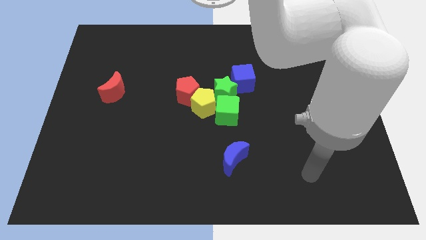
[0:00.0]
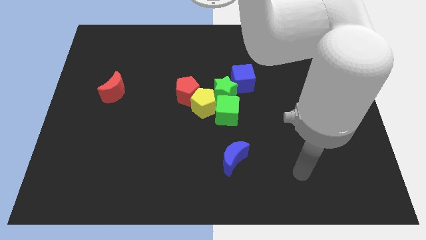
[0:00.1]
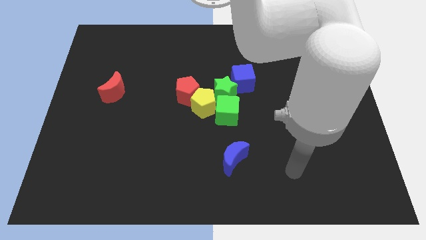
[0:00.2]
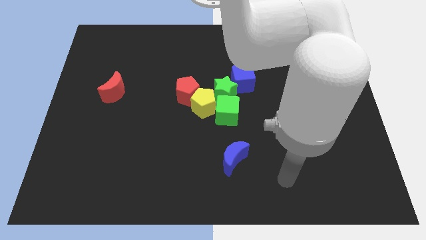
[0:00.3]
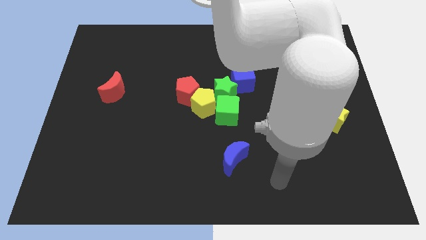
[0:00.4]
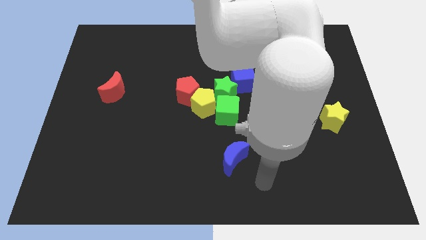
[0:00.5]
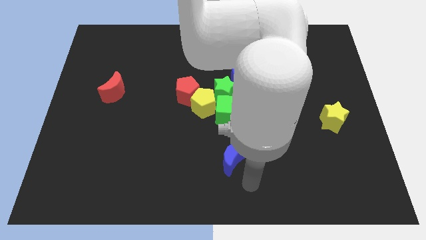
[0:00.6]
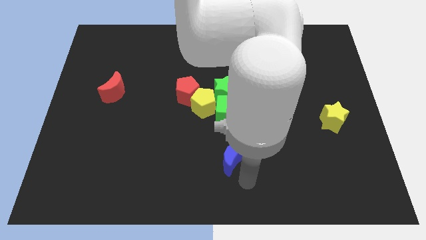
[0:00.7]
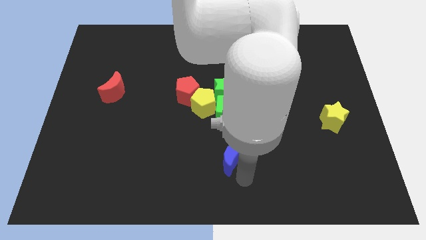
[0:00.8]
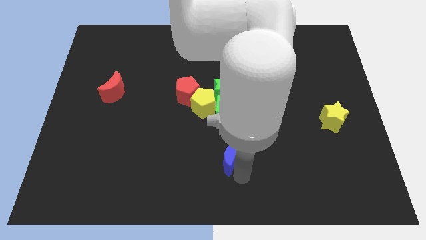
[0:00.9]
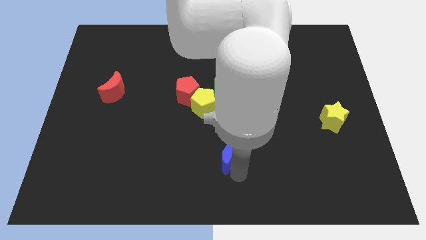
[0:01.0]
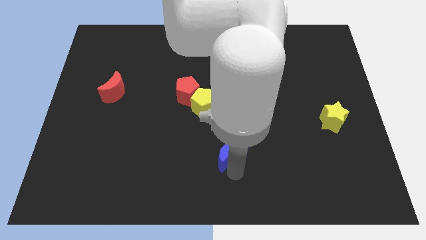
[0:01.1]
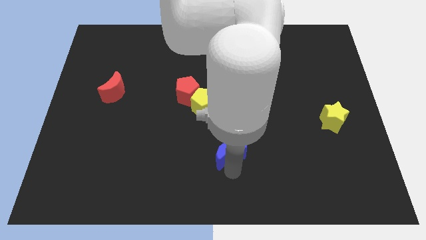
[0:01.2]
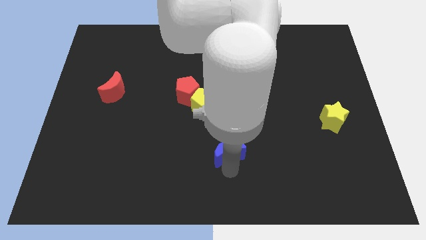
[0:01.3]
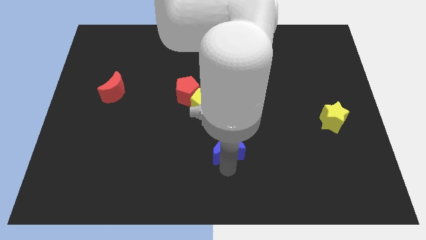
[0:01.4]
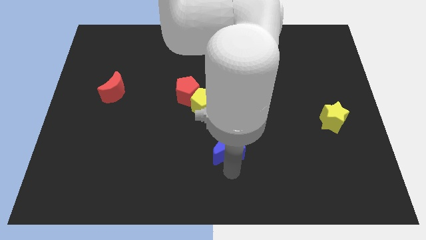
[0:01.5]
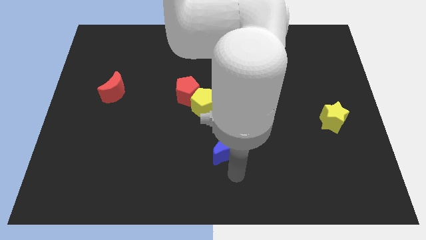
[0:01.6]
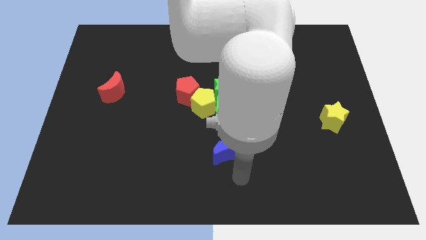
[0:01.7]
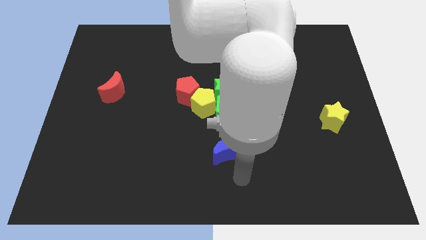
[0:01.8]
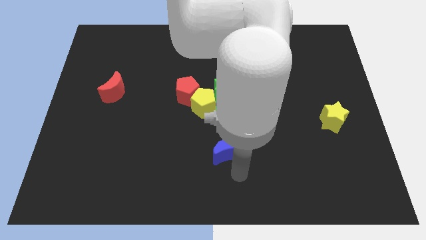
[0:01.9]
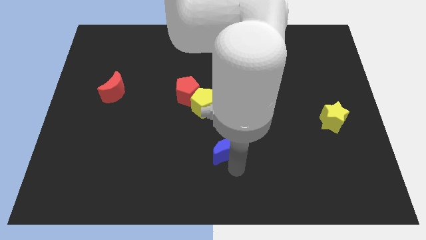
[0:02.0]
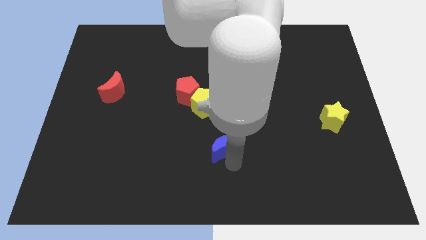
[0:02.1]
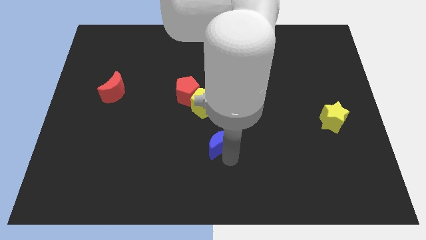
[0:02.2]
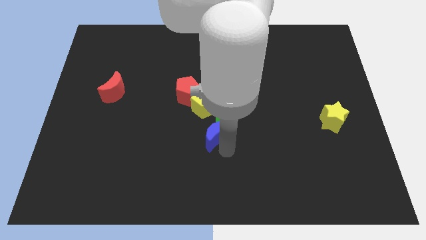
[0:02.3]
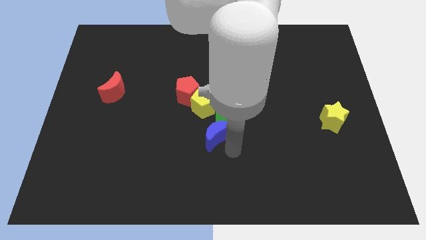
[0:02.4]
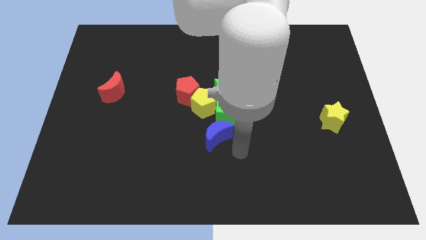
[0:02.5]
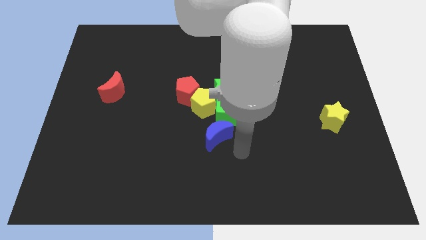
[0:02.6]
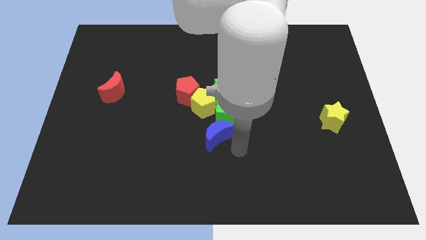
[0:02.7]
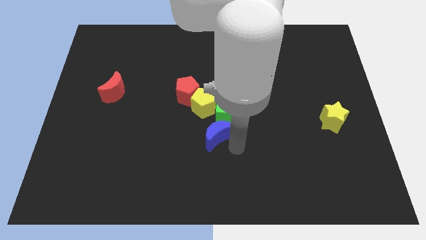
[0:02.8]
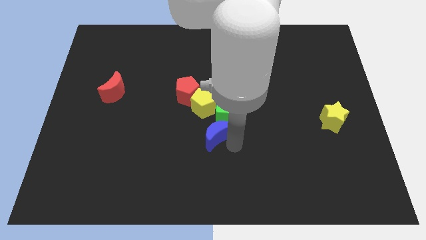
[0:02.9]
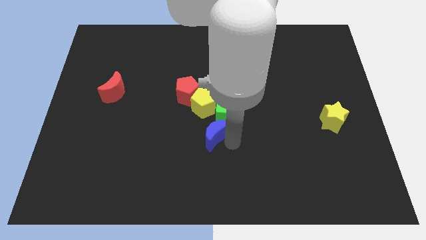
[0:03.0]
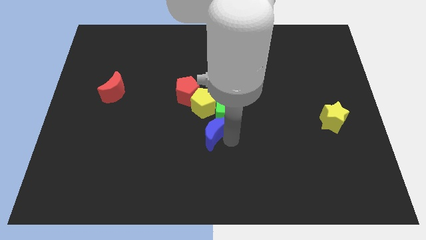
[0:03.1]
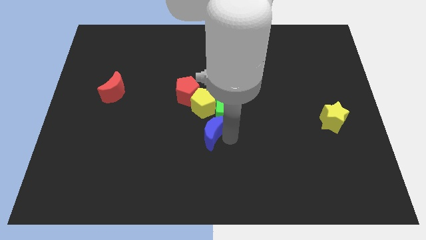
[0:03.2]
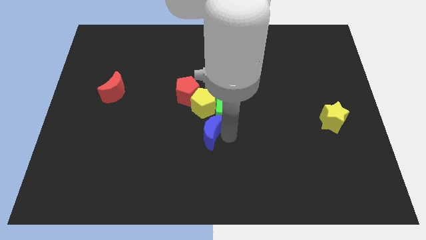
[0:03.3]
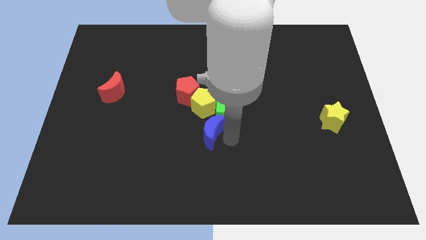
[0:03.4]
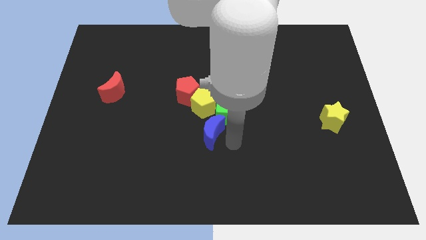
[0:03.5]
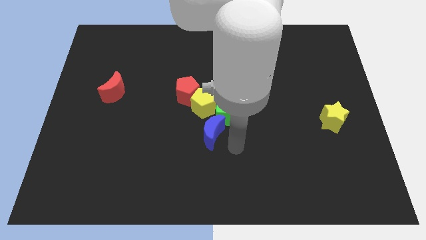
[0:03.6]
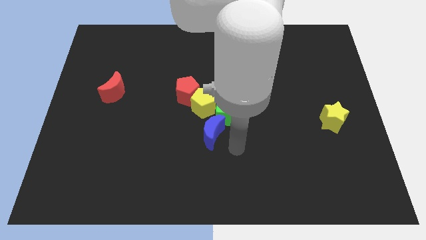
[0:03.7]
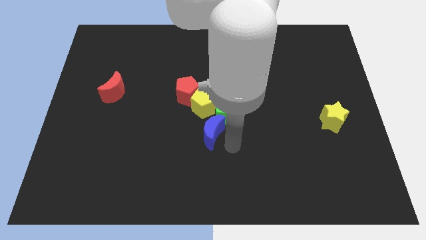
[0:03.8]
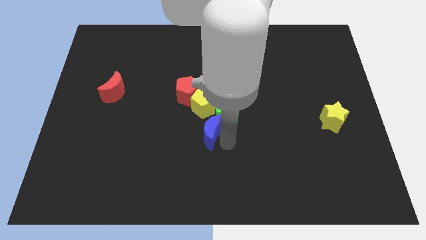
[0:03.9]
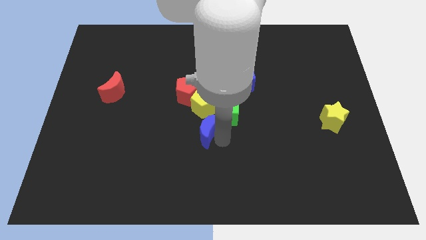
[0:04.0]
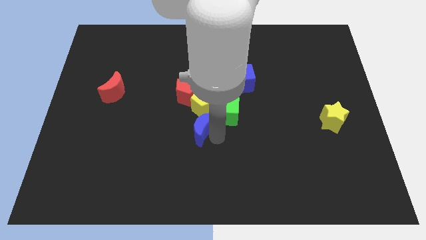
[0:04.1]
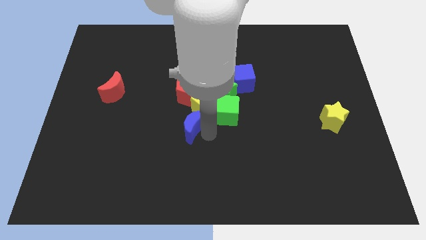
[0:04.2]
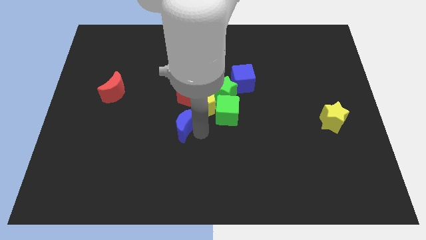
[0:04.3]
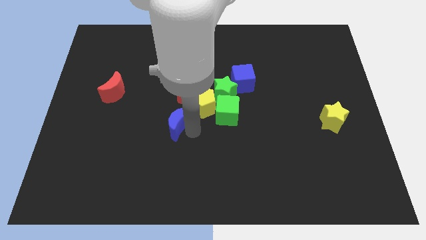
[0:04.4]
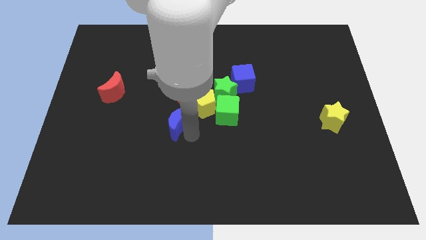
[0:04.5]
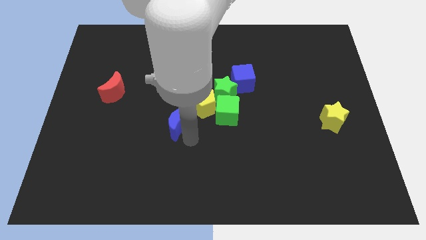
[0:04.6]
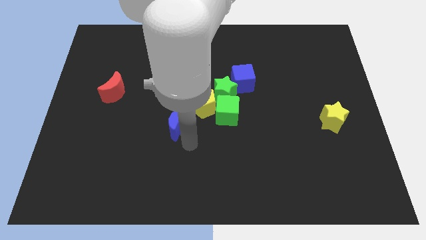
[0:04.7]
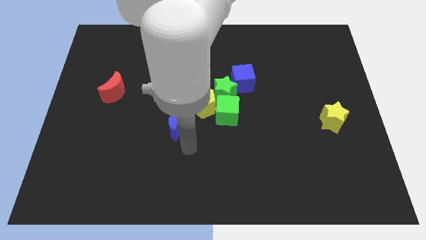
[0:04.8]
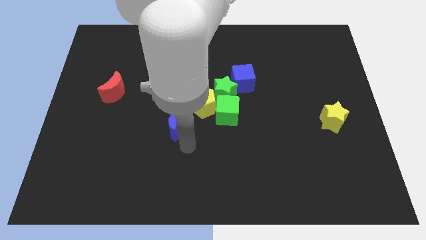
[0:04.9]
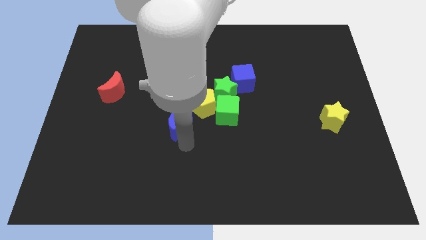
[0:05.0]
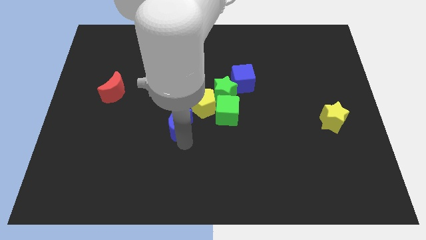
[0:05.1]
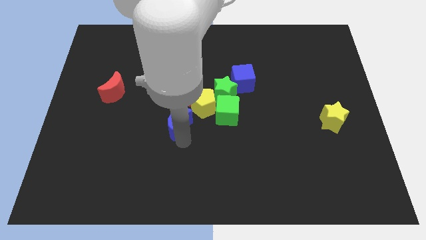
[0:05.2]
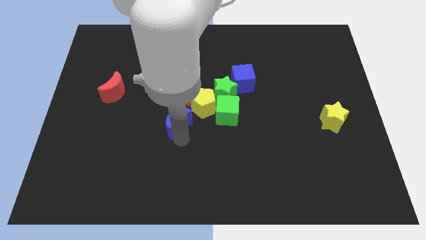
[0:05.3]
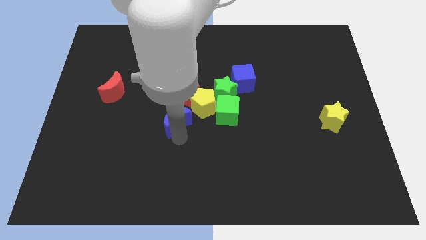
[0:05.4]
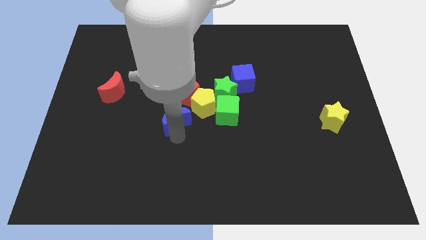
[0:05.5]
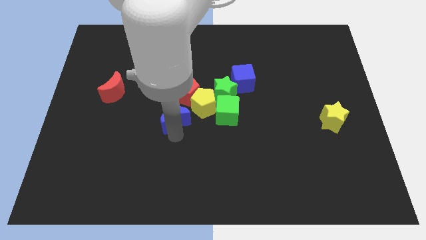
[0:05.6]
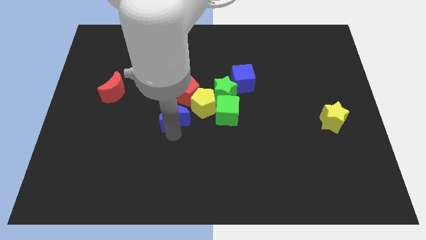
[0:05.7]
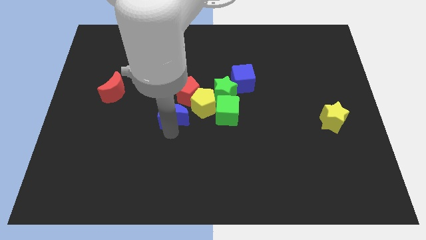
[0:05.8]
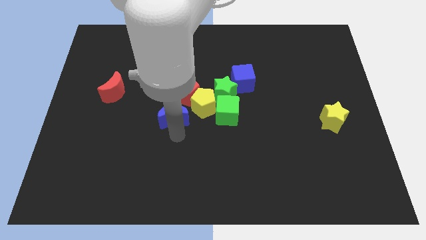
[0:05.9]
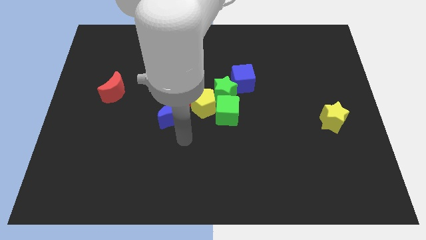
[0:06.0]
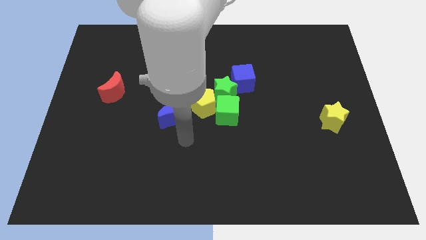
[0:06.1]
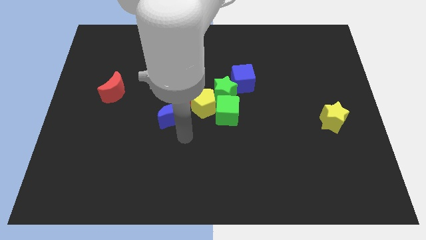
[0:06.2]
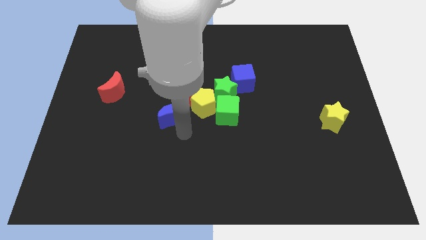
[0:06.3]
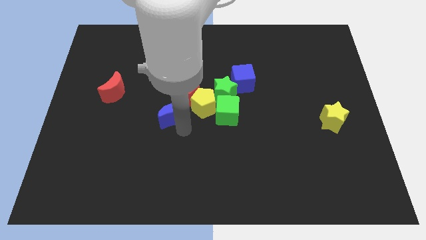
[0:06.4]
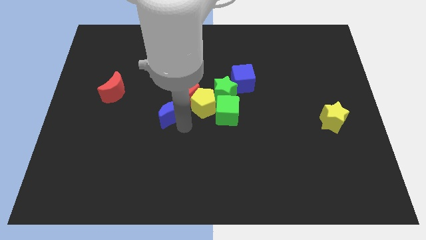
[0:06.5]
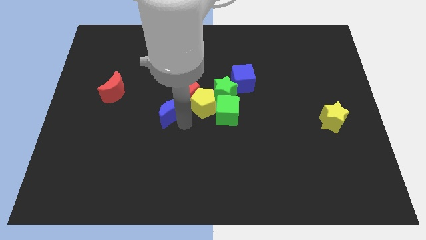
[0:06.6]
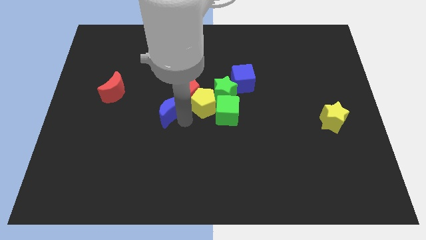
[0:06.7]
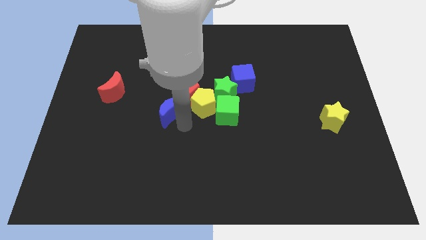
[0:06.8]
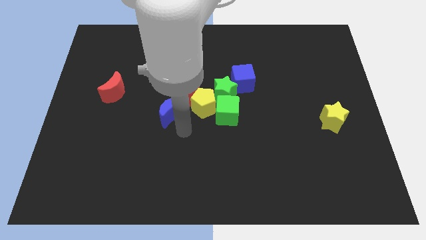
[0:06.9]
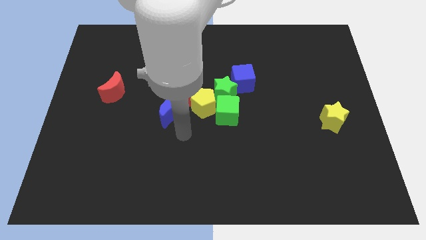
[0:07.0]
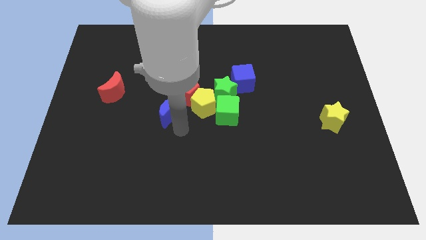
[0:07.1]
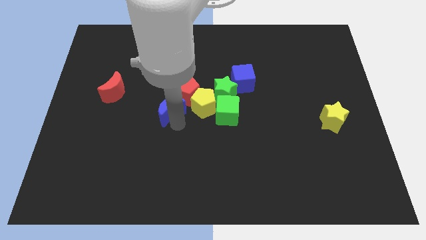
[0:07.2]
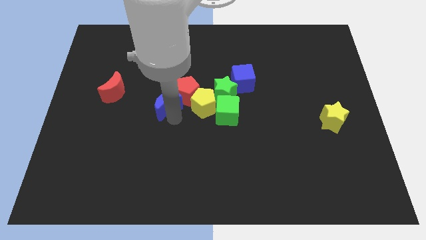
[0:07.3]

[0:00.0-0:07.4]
slide the blue moon upwards and to the left diagonally

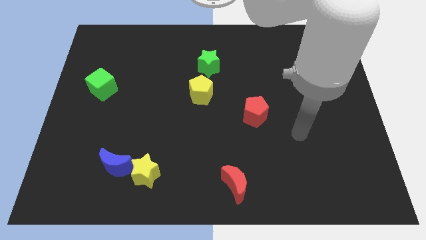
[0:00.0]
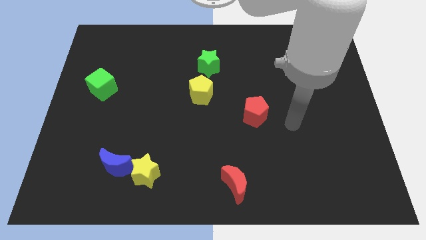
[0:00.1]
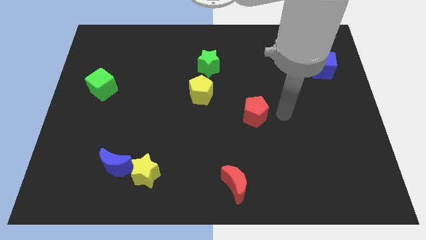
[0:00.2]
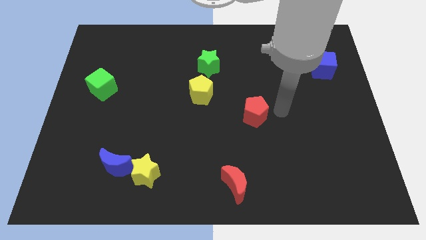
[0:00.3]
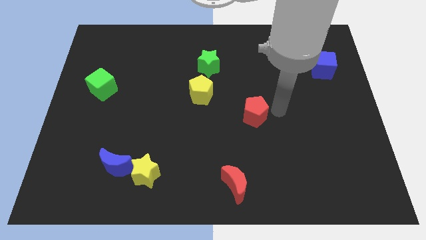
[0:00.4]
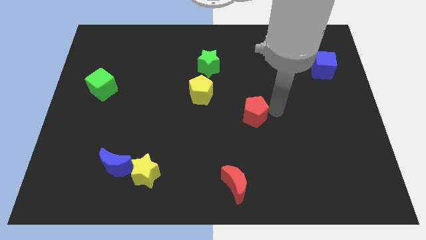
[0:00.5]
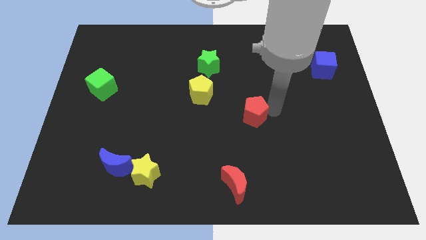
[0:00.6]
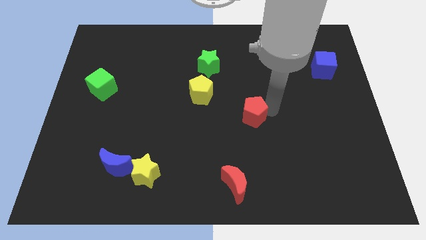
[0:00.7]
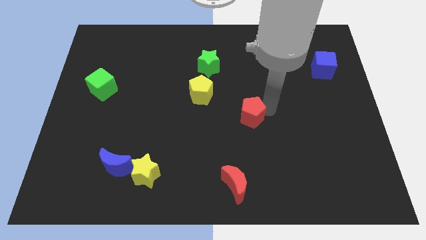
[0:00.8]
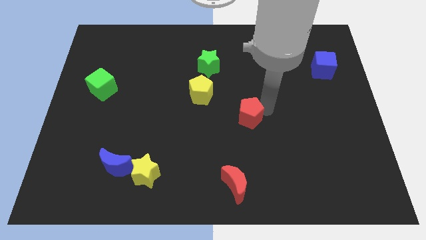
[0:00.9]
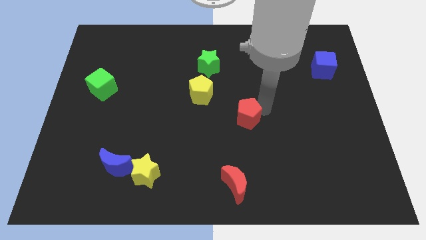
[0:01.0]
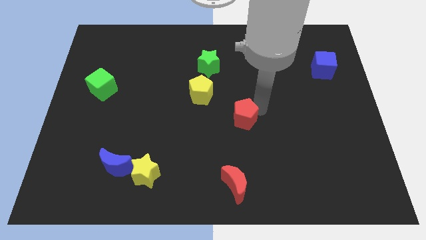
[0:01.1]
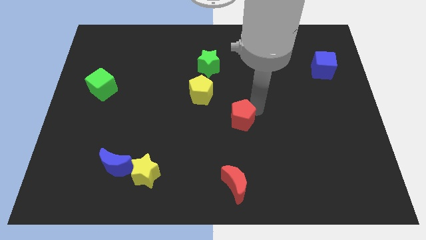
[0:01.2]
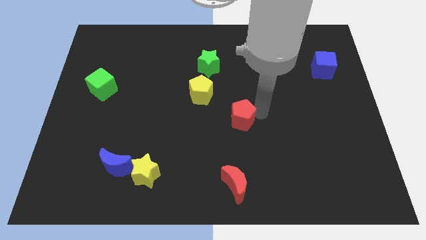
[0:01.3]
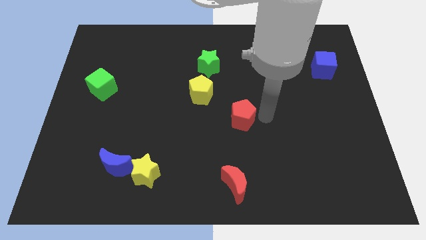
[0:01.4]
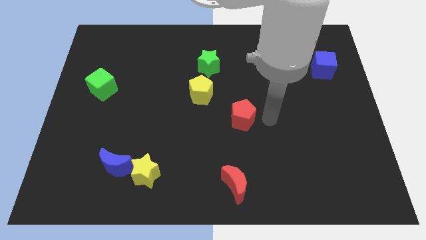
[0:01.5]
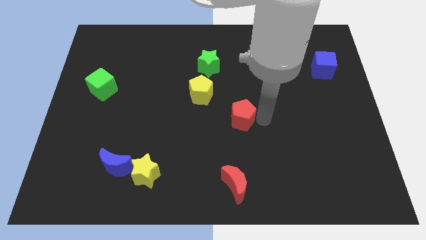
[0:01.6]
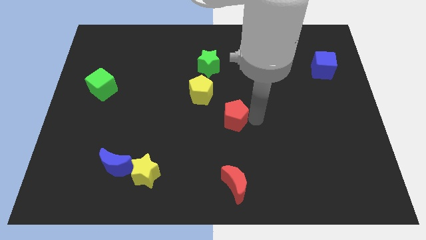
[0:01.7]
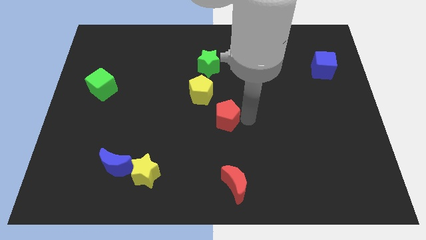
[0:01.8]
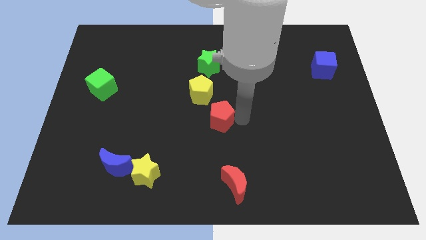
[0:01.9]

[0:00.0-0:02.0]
slightly move the red pentagon left
